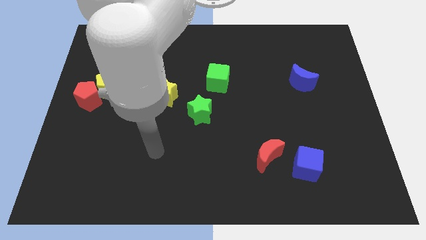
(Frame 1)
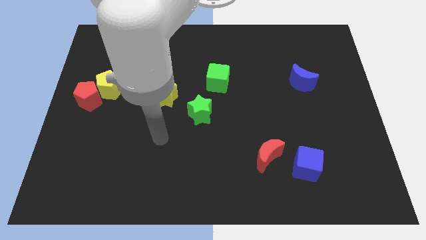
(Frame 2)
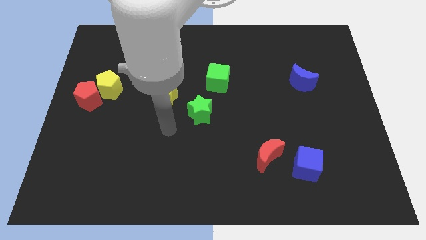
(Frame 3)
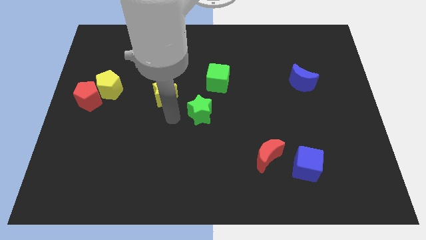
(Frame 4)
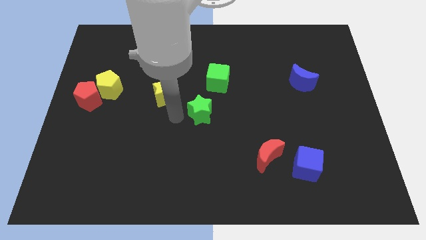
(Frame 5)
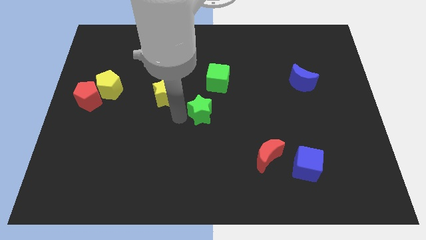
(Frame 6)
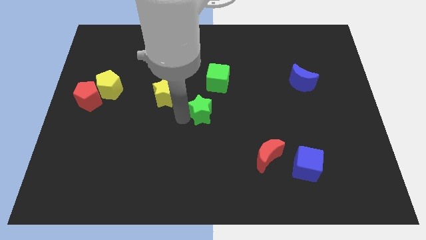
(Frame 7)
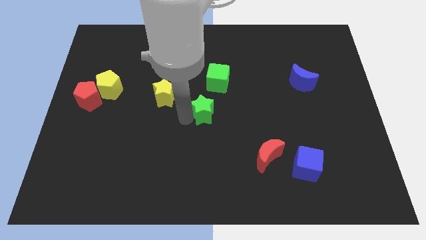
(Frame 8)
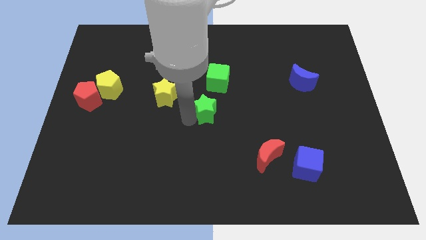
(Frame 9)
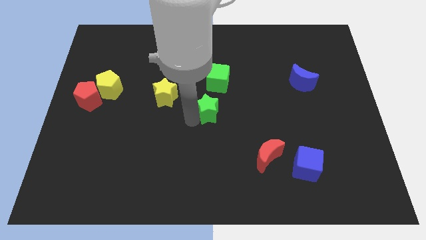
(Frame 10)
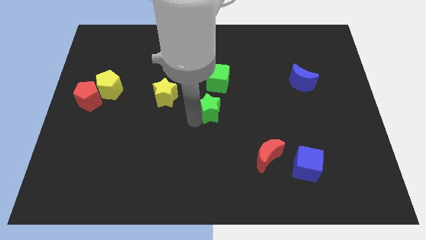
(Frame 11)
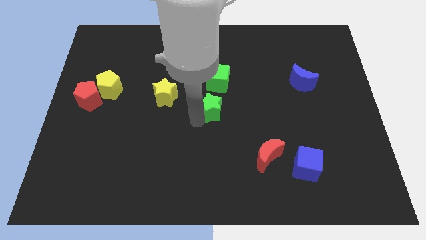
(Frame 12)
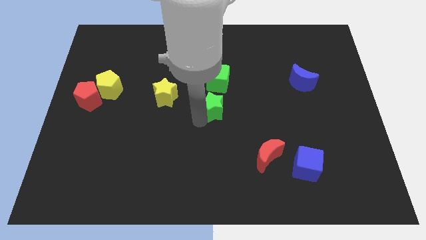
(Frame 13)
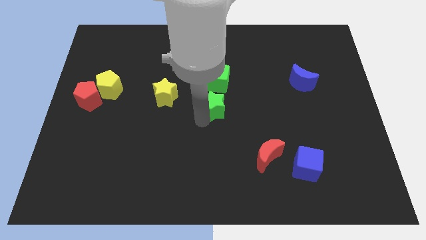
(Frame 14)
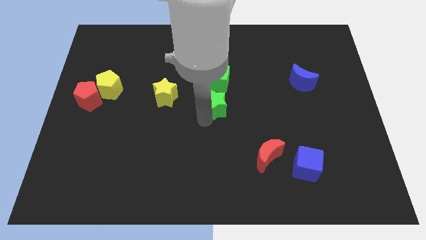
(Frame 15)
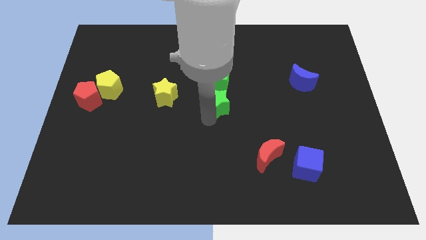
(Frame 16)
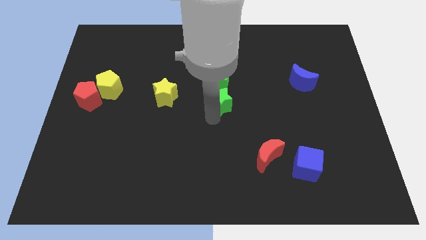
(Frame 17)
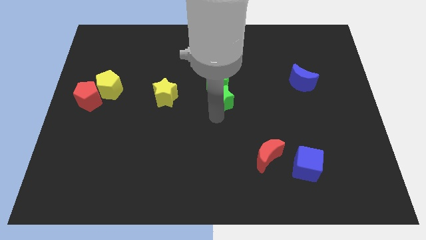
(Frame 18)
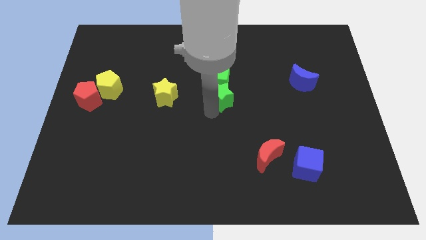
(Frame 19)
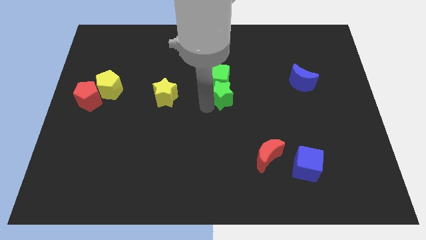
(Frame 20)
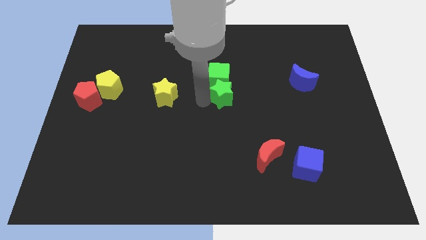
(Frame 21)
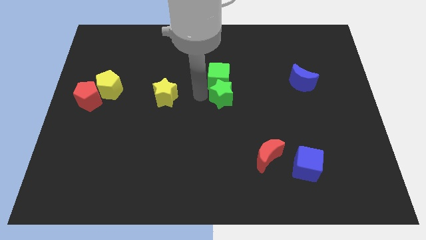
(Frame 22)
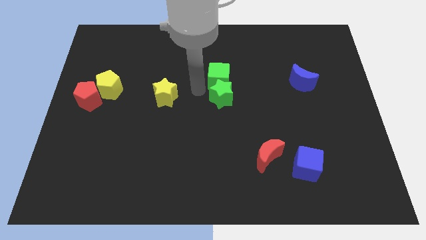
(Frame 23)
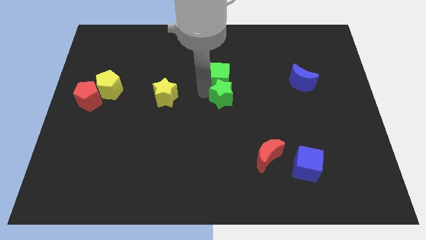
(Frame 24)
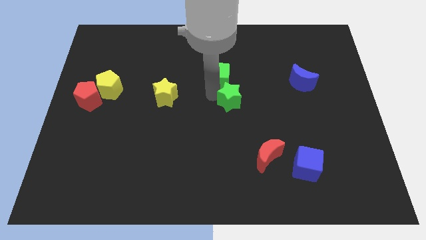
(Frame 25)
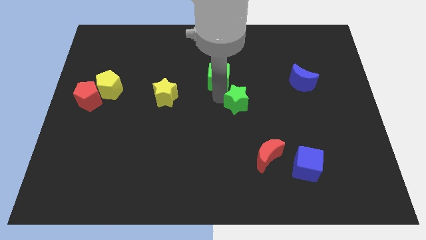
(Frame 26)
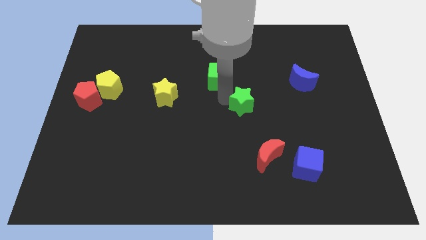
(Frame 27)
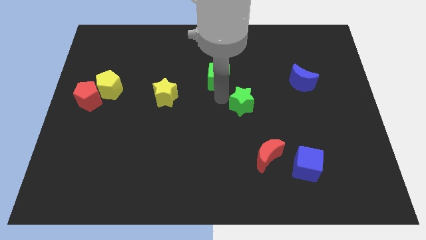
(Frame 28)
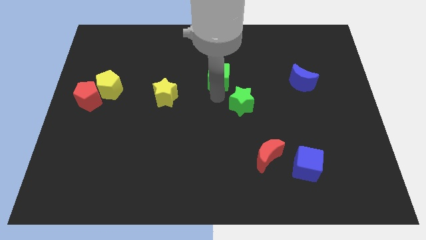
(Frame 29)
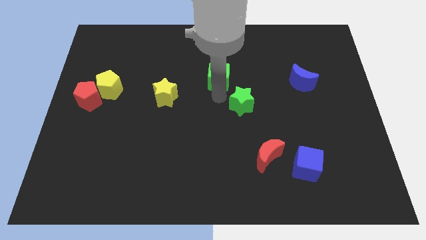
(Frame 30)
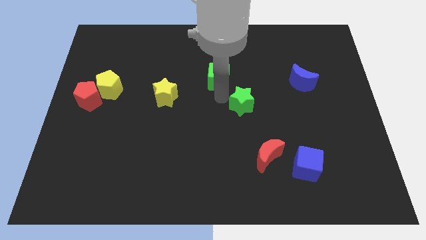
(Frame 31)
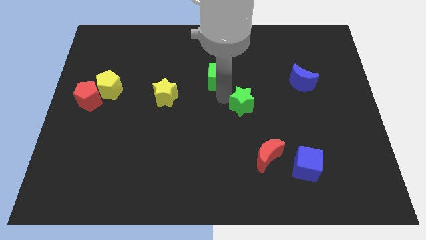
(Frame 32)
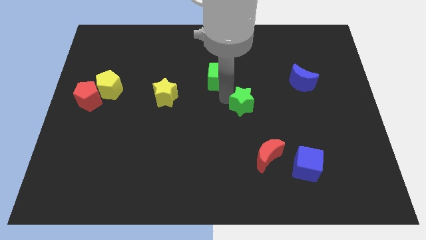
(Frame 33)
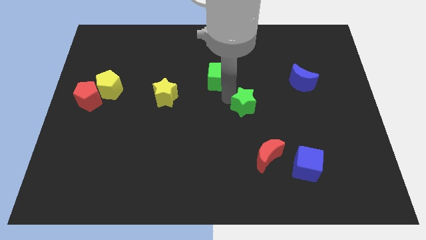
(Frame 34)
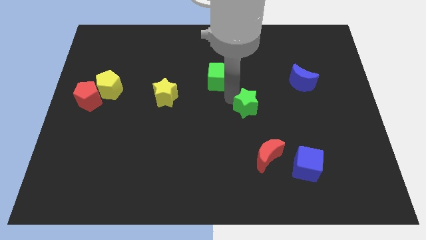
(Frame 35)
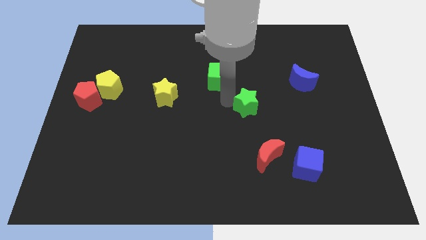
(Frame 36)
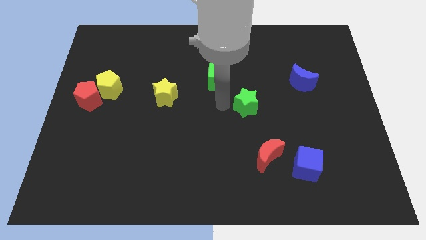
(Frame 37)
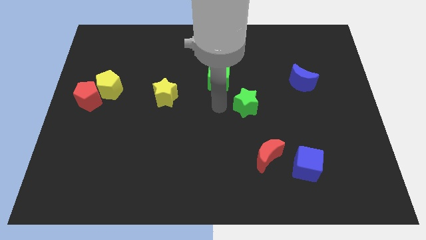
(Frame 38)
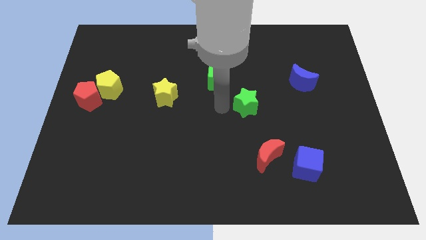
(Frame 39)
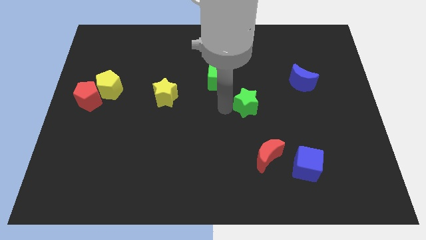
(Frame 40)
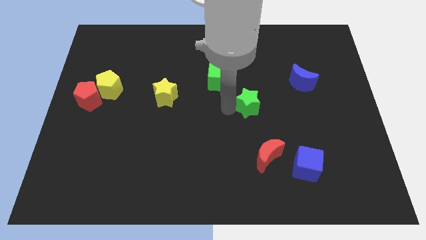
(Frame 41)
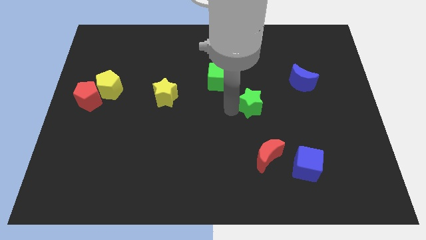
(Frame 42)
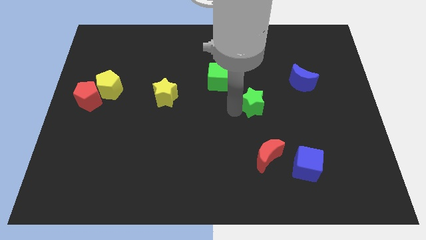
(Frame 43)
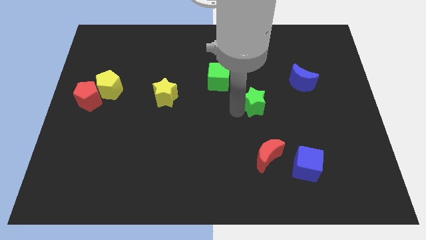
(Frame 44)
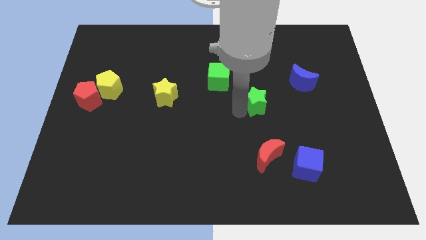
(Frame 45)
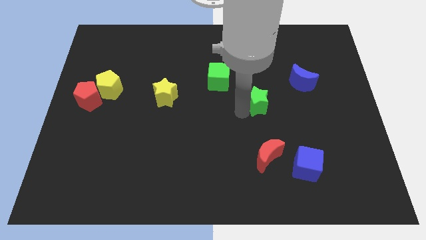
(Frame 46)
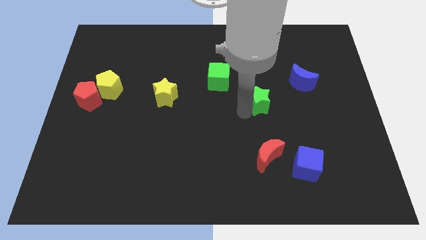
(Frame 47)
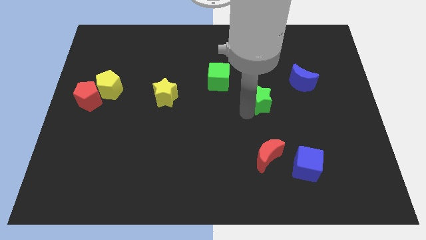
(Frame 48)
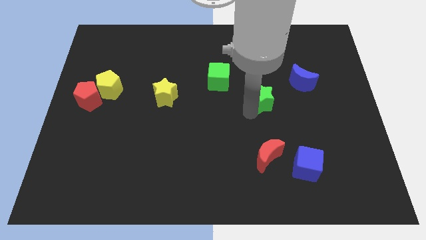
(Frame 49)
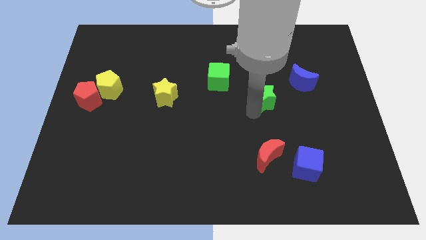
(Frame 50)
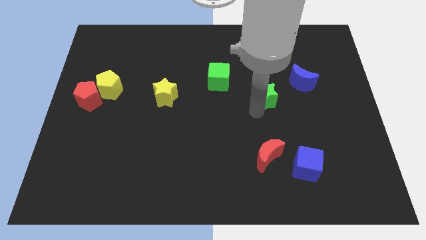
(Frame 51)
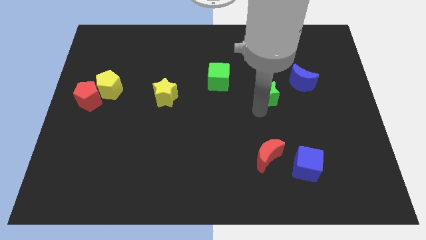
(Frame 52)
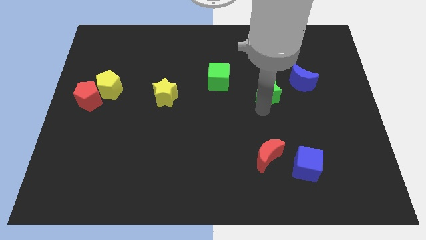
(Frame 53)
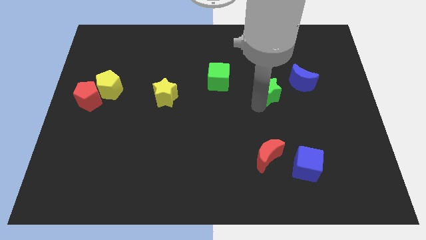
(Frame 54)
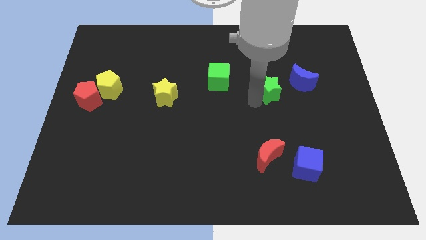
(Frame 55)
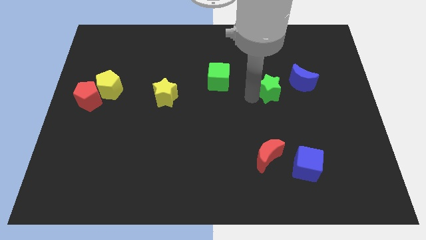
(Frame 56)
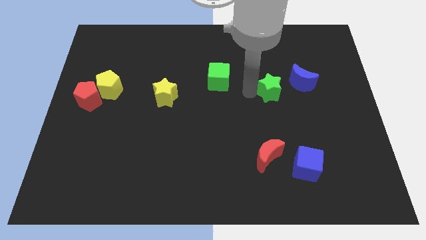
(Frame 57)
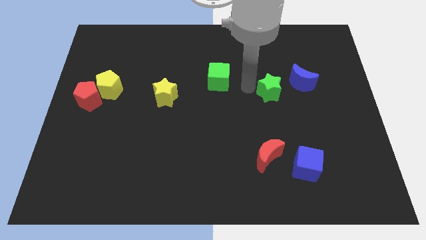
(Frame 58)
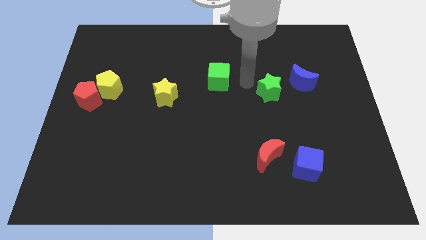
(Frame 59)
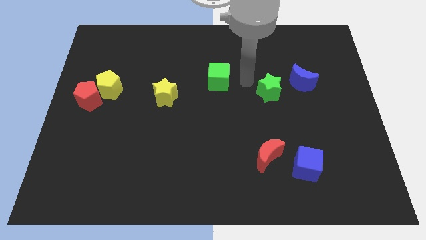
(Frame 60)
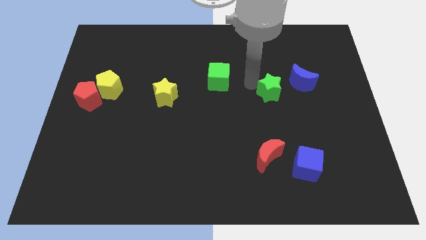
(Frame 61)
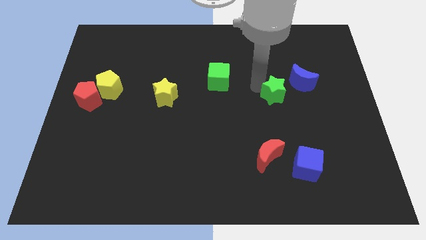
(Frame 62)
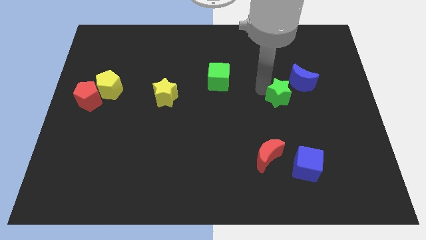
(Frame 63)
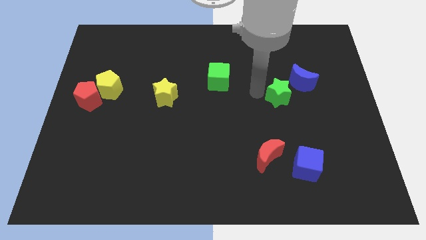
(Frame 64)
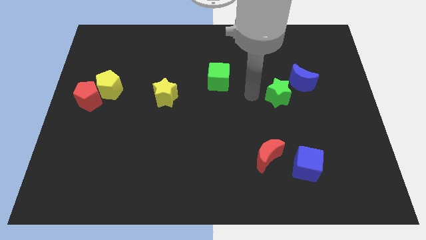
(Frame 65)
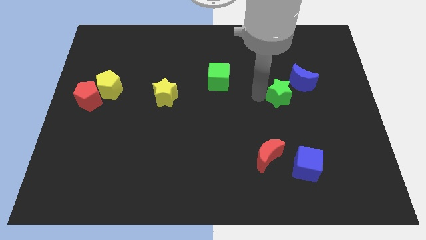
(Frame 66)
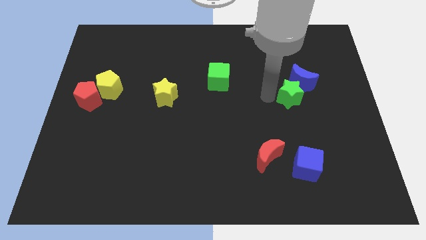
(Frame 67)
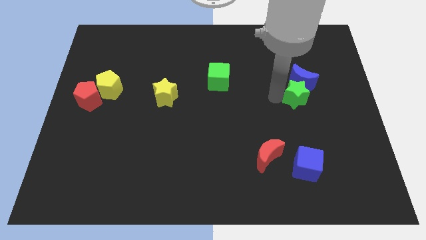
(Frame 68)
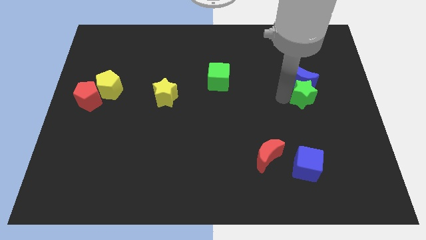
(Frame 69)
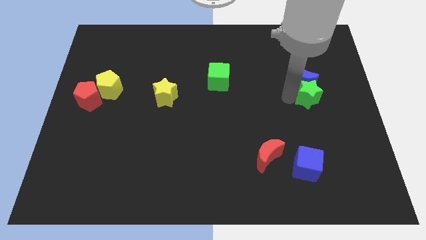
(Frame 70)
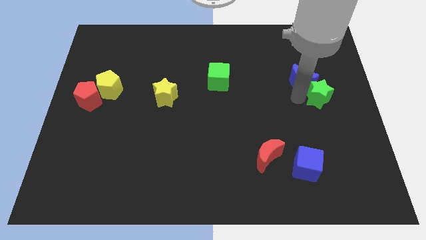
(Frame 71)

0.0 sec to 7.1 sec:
move the green star to the right side of the board
